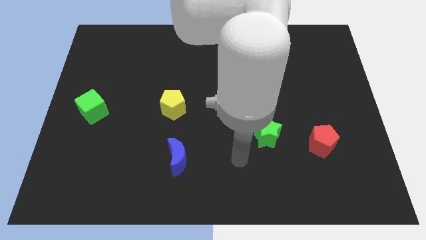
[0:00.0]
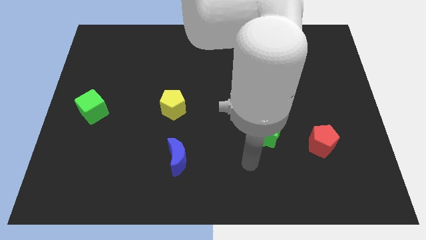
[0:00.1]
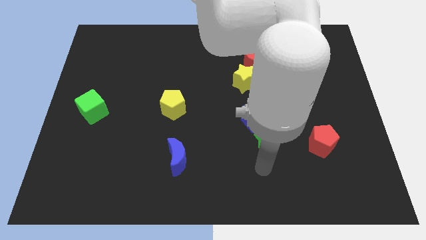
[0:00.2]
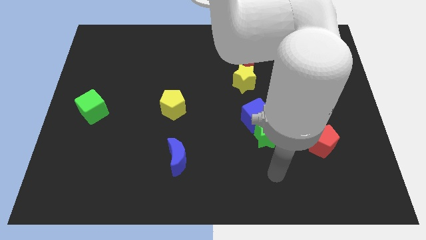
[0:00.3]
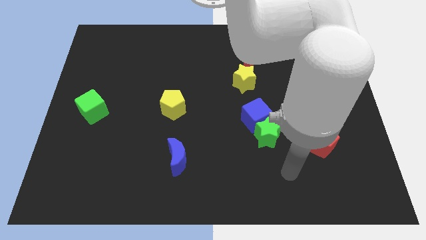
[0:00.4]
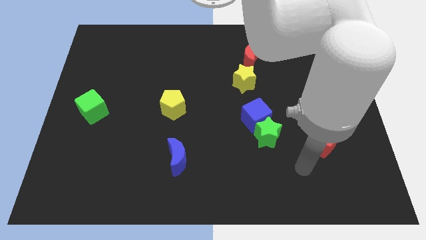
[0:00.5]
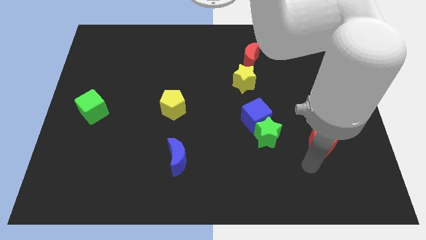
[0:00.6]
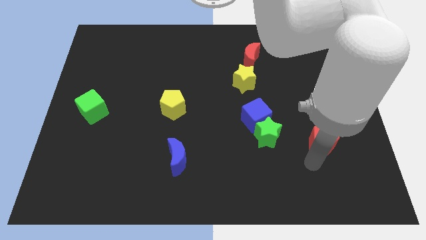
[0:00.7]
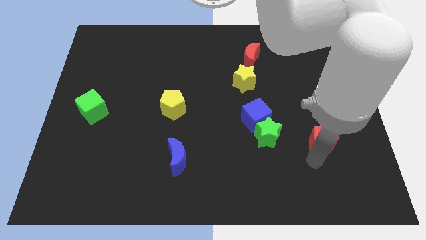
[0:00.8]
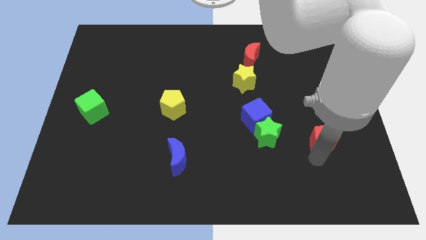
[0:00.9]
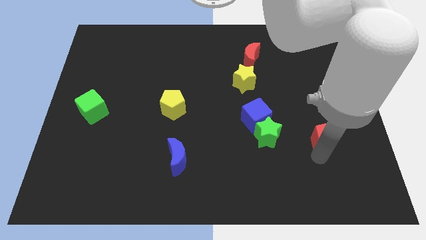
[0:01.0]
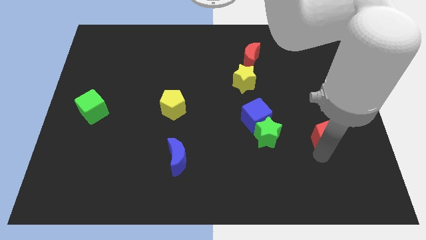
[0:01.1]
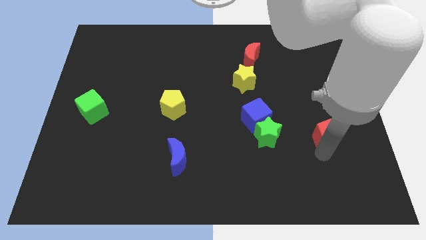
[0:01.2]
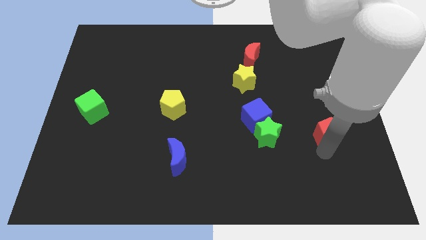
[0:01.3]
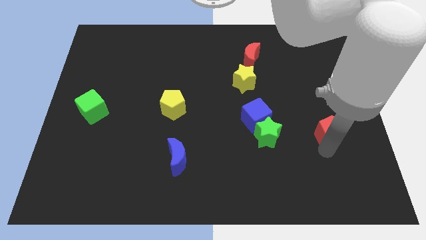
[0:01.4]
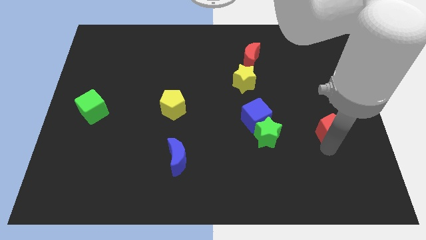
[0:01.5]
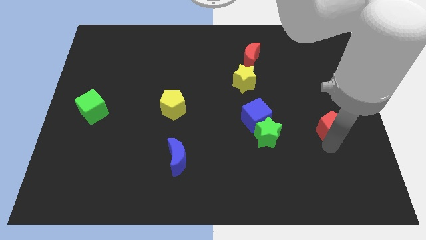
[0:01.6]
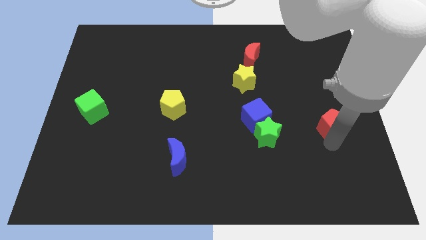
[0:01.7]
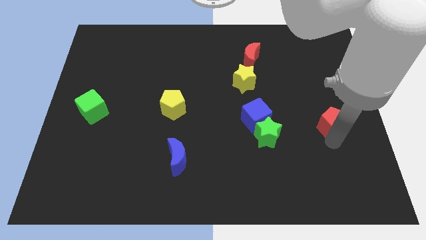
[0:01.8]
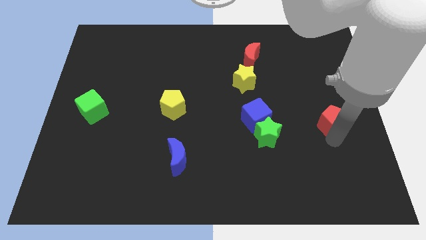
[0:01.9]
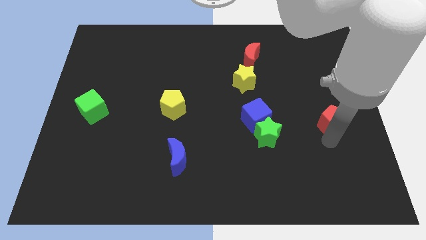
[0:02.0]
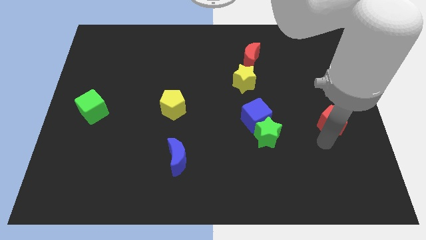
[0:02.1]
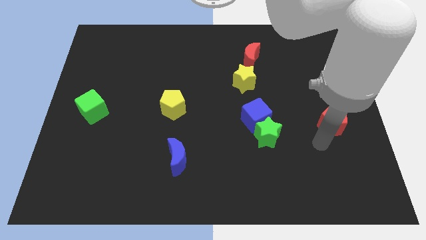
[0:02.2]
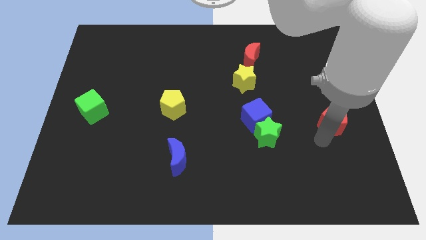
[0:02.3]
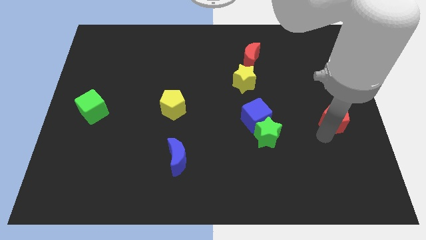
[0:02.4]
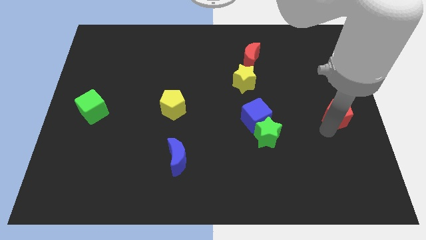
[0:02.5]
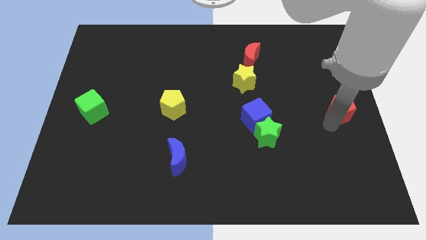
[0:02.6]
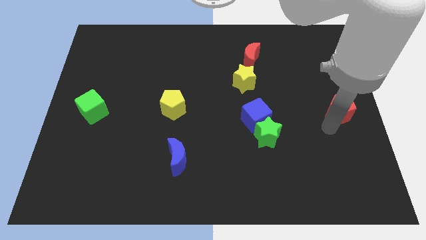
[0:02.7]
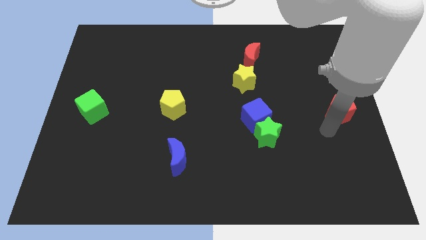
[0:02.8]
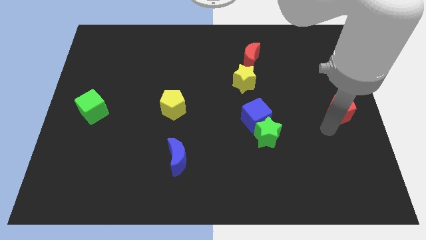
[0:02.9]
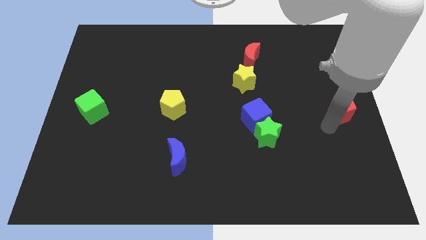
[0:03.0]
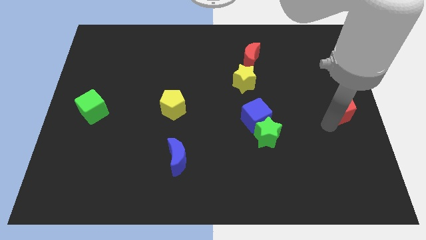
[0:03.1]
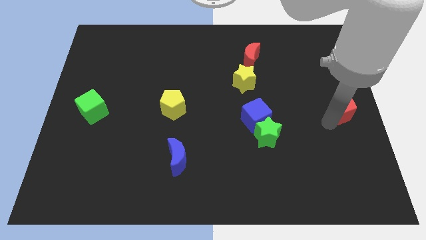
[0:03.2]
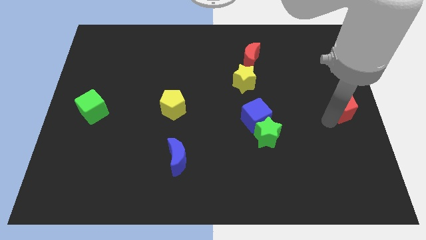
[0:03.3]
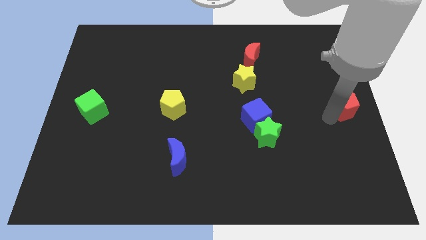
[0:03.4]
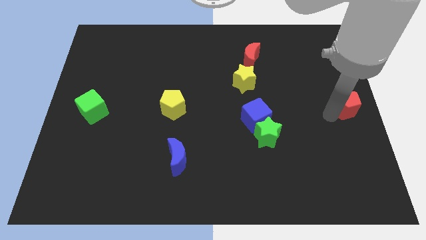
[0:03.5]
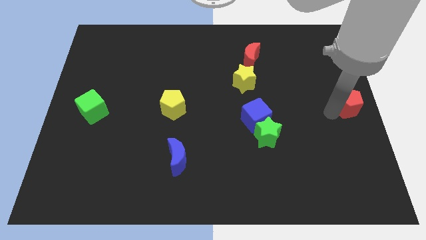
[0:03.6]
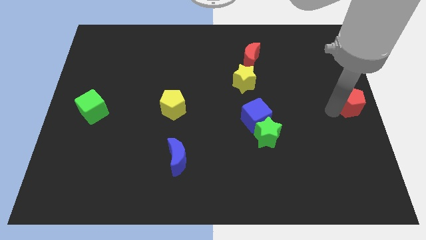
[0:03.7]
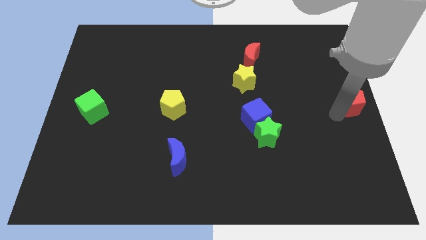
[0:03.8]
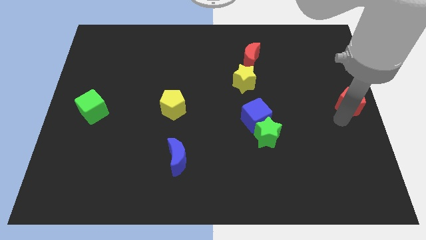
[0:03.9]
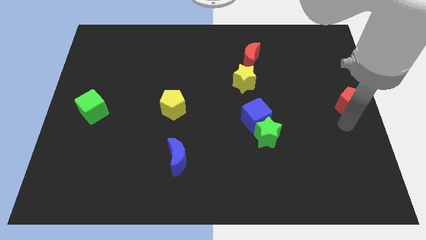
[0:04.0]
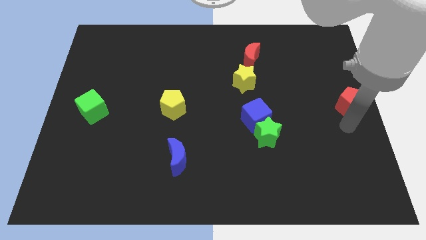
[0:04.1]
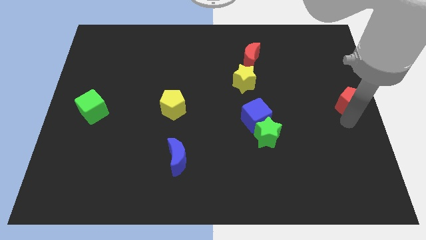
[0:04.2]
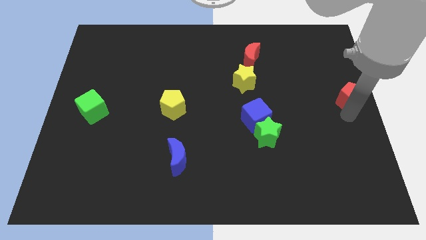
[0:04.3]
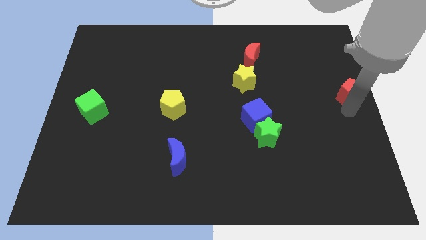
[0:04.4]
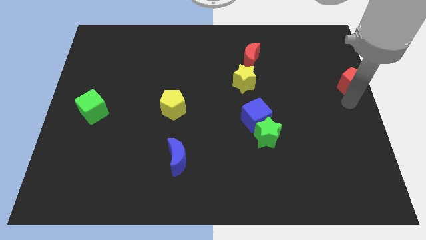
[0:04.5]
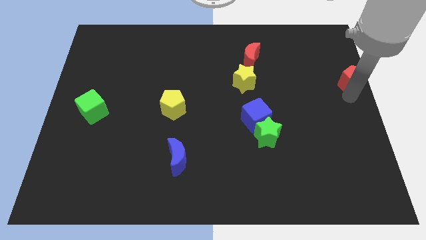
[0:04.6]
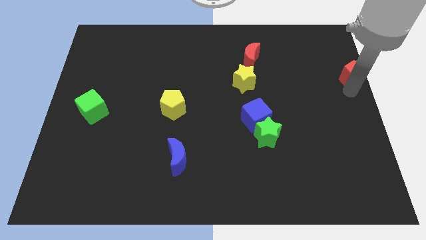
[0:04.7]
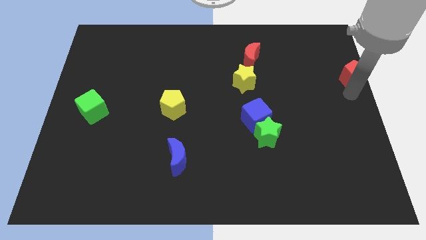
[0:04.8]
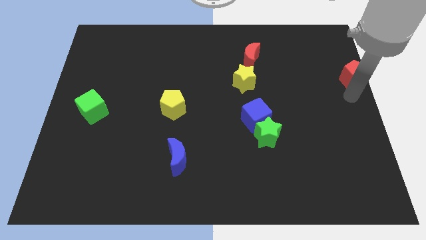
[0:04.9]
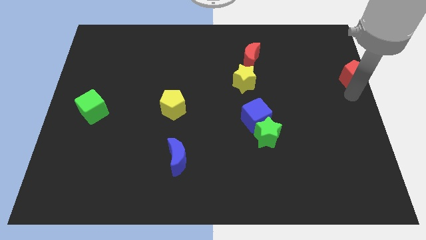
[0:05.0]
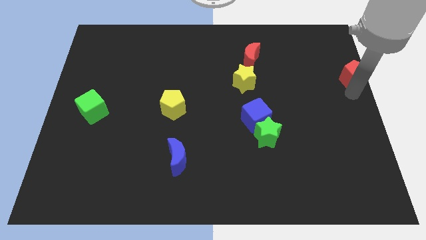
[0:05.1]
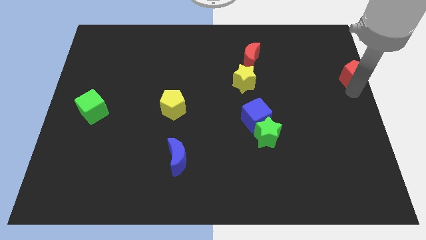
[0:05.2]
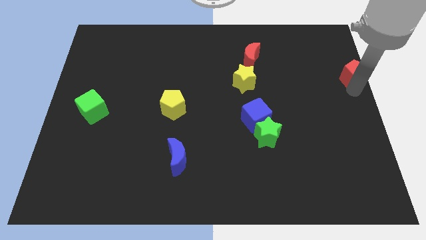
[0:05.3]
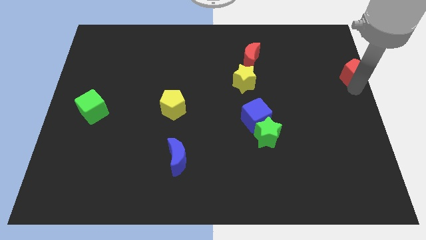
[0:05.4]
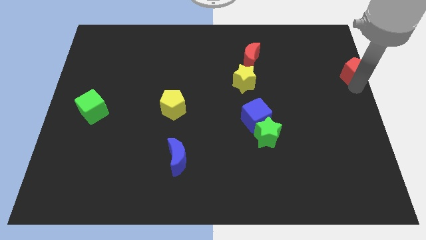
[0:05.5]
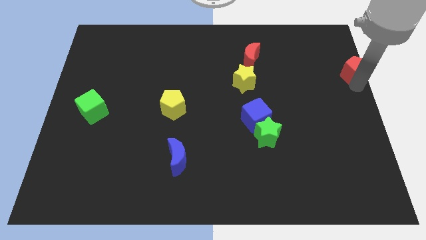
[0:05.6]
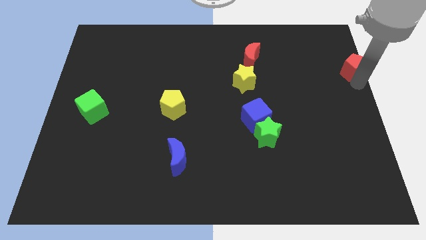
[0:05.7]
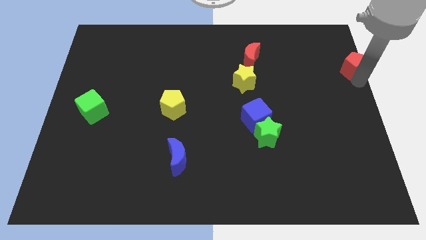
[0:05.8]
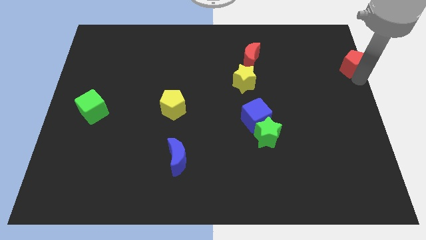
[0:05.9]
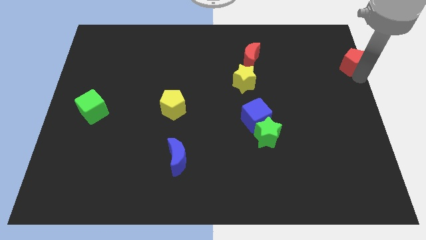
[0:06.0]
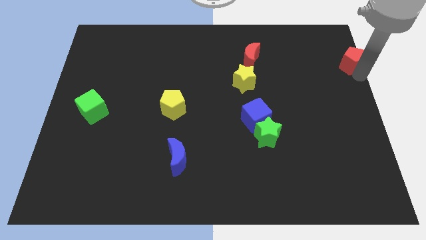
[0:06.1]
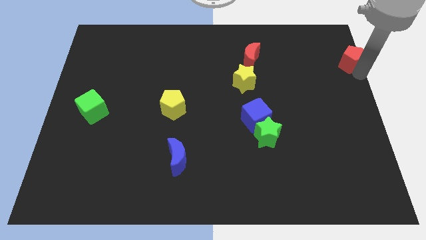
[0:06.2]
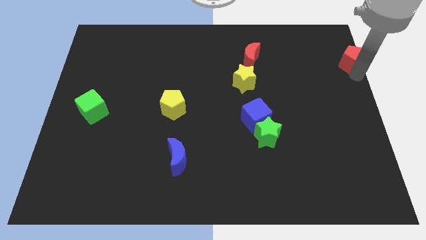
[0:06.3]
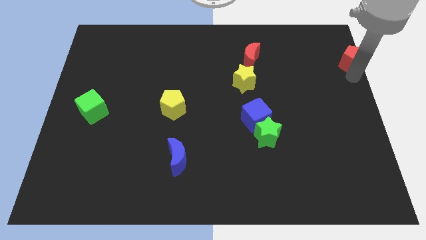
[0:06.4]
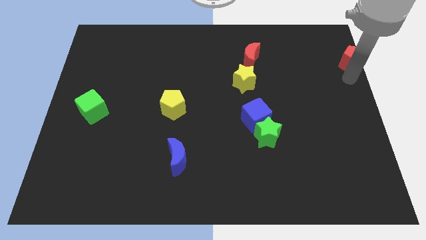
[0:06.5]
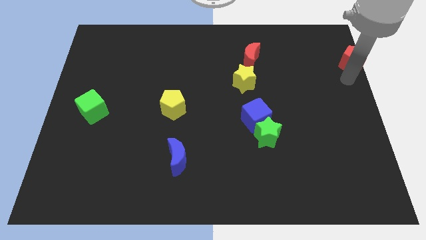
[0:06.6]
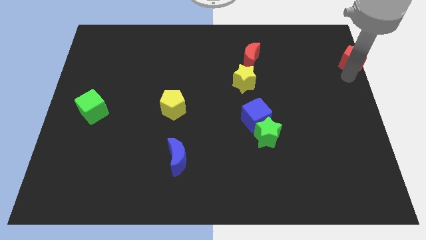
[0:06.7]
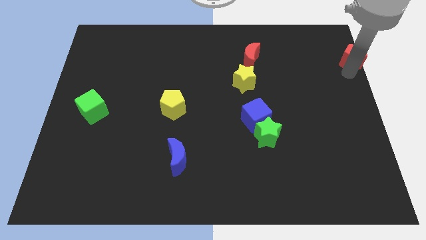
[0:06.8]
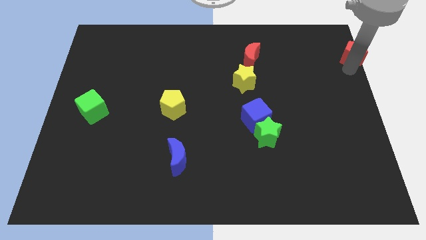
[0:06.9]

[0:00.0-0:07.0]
move the red pentagon to the upper right corner
